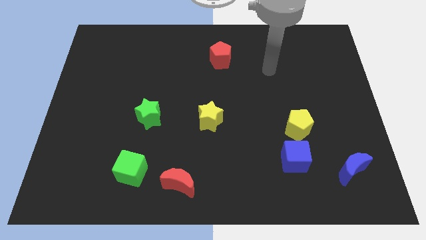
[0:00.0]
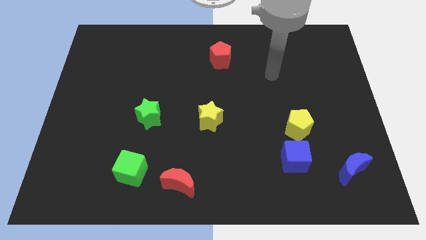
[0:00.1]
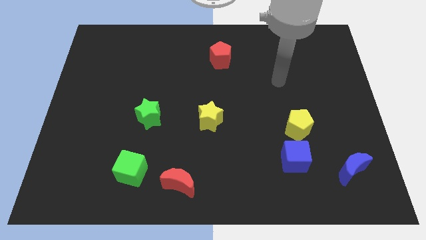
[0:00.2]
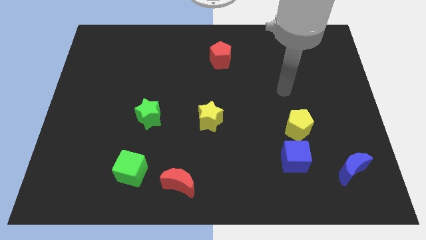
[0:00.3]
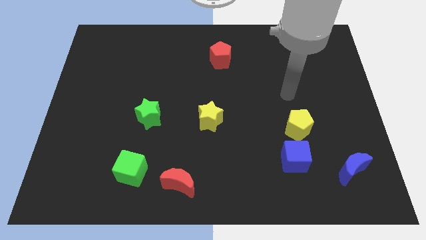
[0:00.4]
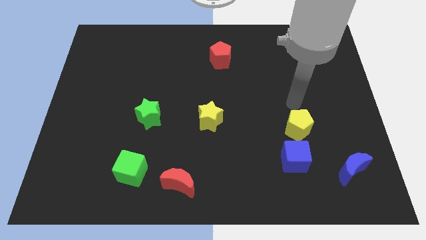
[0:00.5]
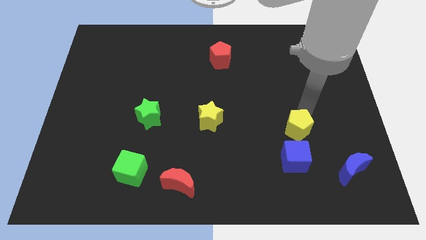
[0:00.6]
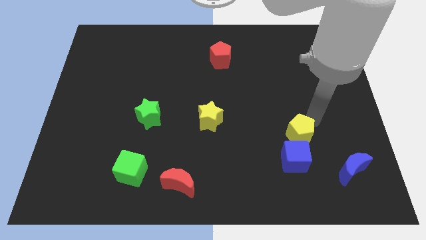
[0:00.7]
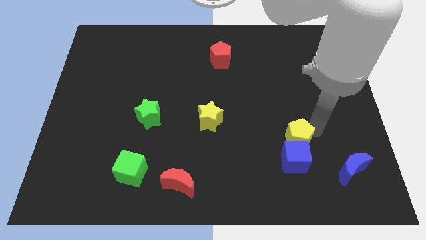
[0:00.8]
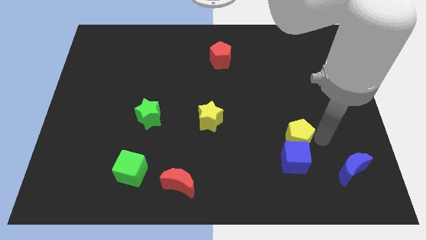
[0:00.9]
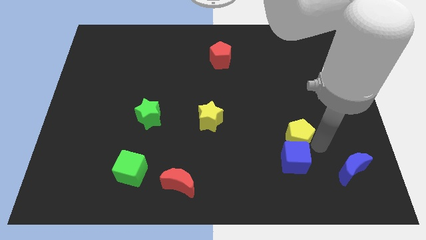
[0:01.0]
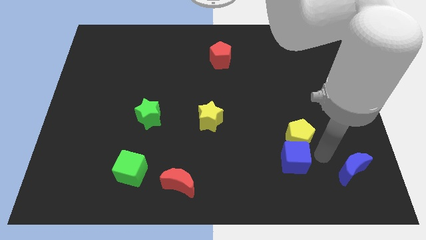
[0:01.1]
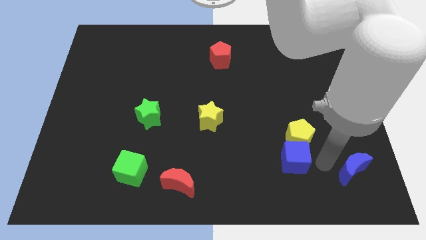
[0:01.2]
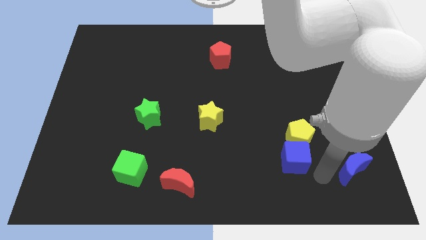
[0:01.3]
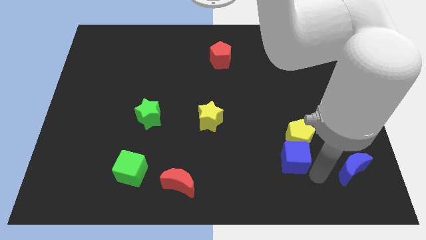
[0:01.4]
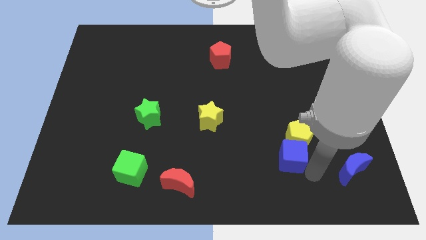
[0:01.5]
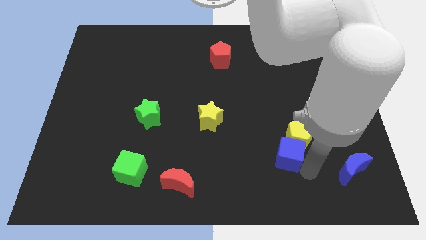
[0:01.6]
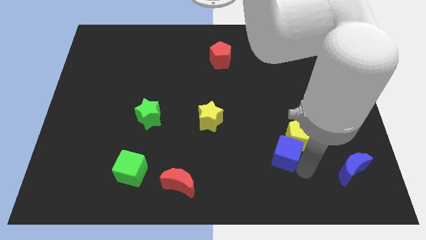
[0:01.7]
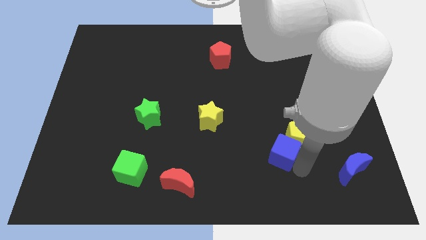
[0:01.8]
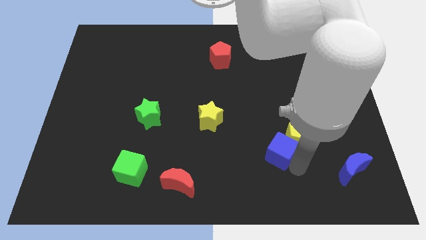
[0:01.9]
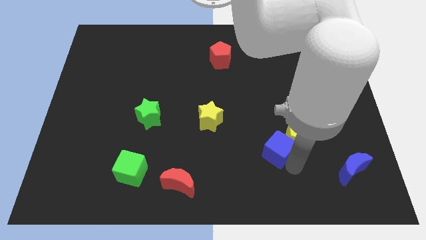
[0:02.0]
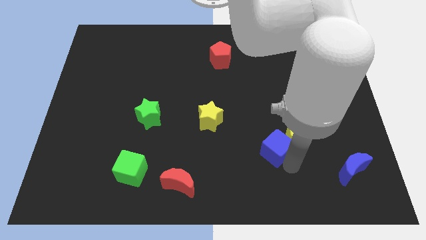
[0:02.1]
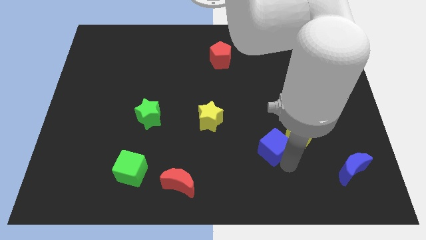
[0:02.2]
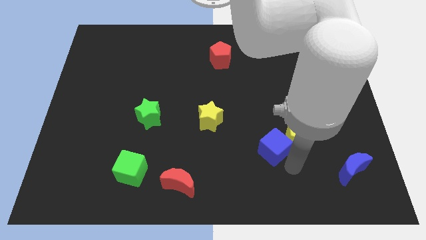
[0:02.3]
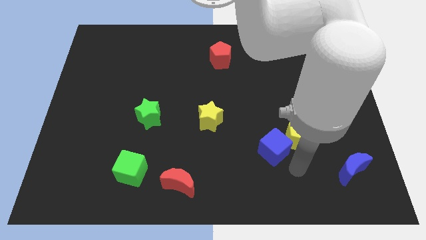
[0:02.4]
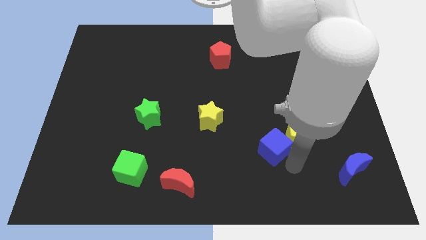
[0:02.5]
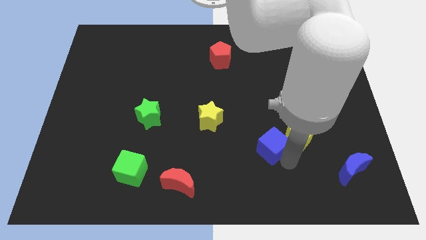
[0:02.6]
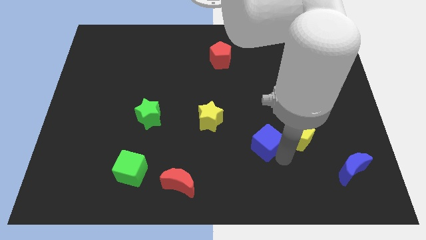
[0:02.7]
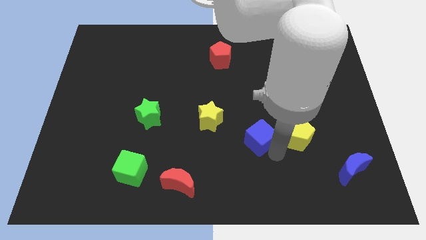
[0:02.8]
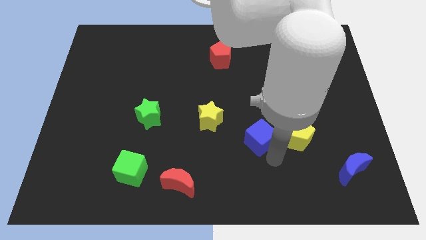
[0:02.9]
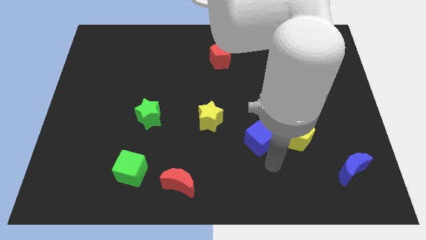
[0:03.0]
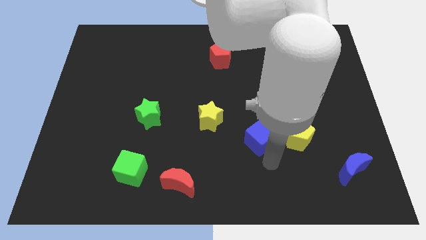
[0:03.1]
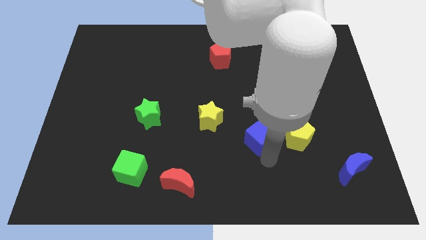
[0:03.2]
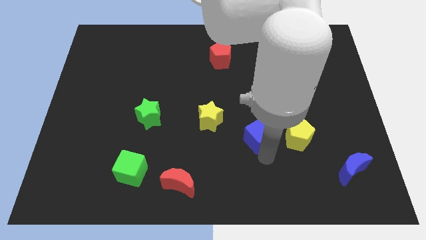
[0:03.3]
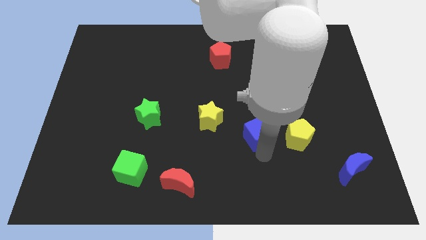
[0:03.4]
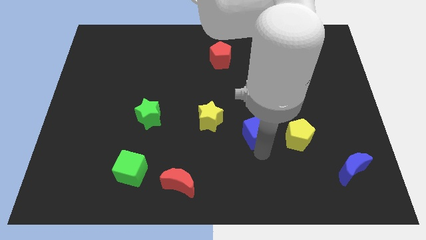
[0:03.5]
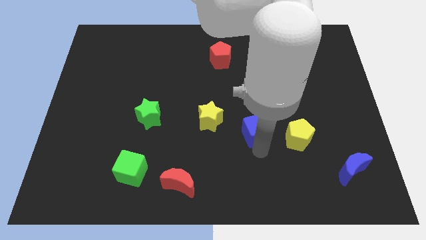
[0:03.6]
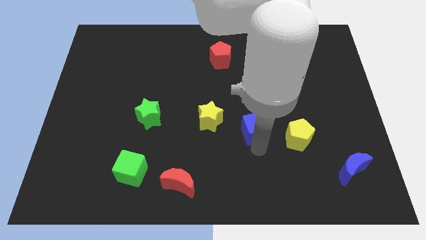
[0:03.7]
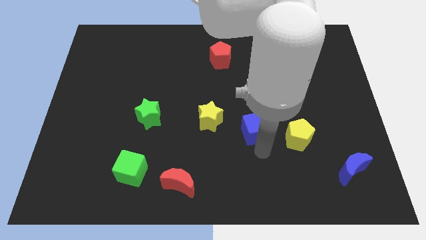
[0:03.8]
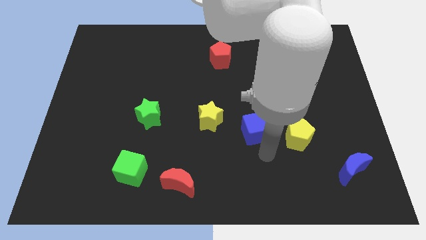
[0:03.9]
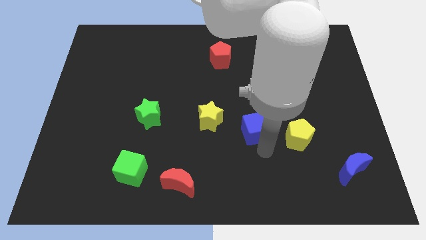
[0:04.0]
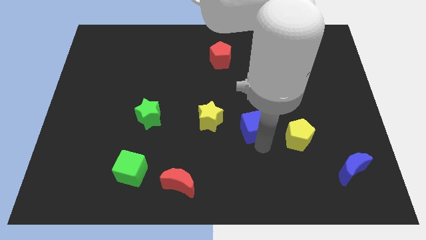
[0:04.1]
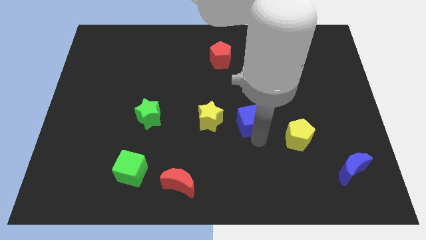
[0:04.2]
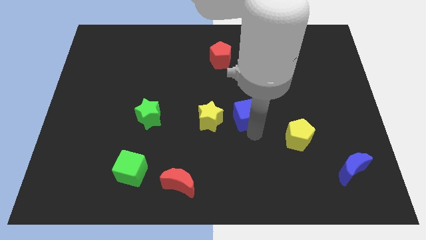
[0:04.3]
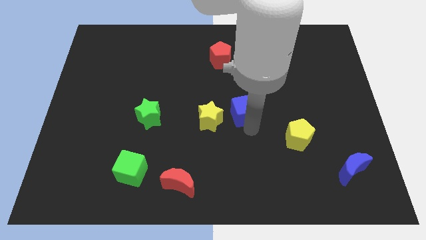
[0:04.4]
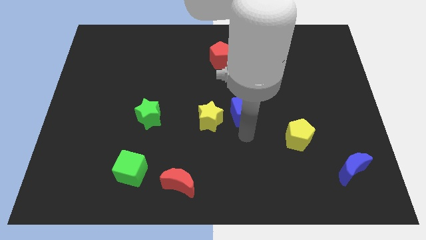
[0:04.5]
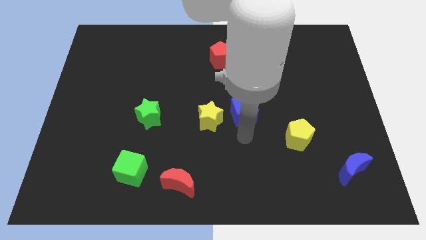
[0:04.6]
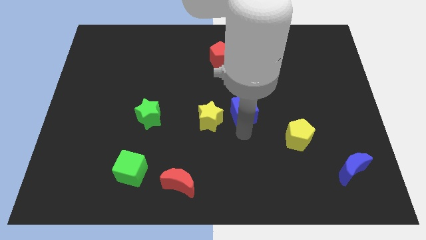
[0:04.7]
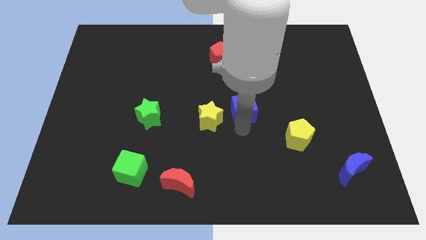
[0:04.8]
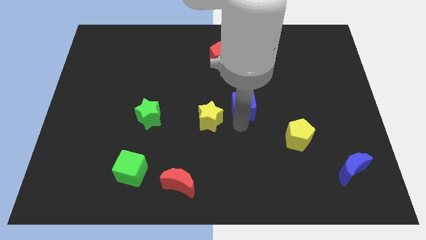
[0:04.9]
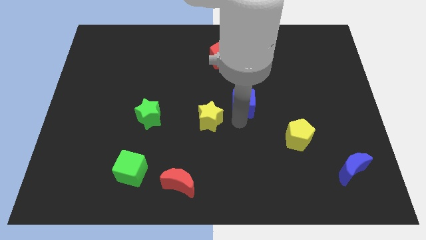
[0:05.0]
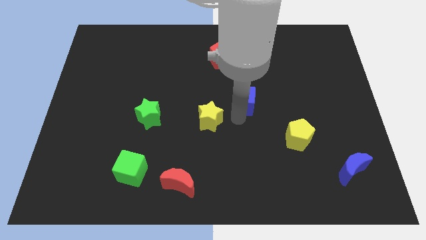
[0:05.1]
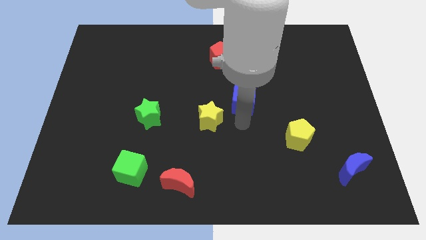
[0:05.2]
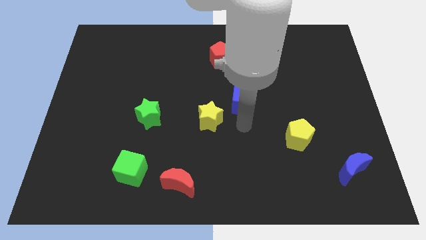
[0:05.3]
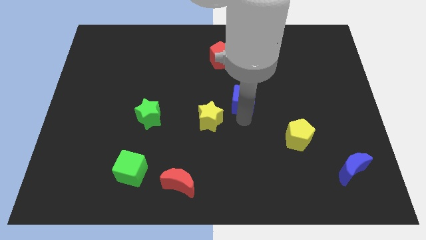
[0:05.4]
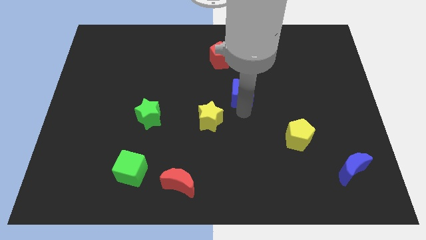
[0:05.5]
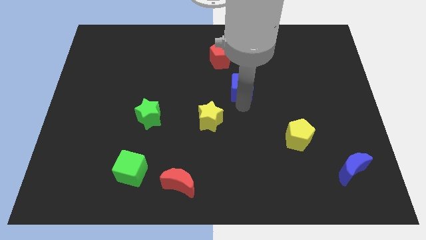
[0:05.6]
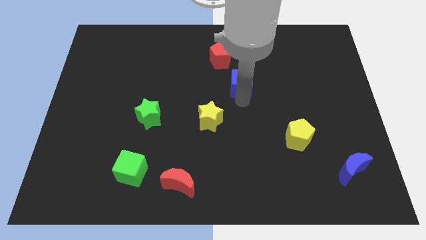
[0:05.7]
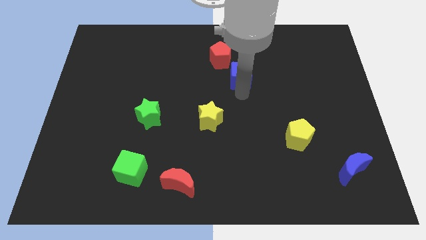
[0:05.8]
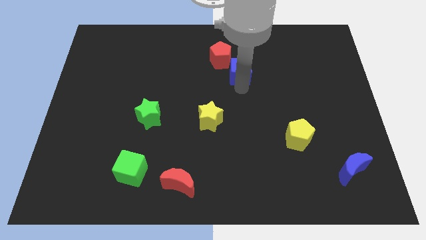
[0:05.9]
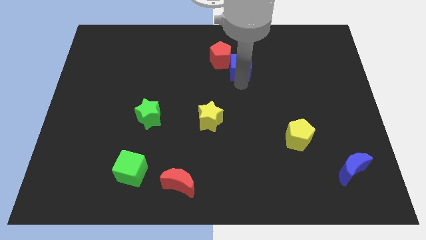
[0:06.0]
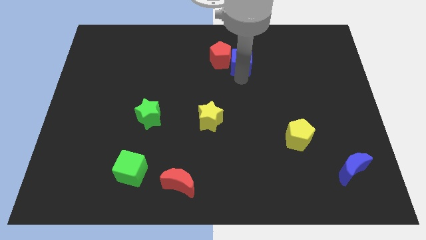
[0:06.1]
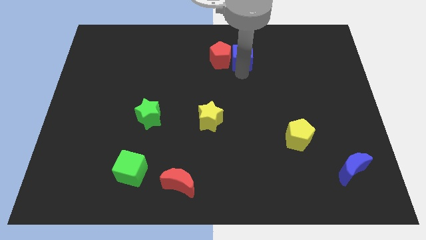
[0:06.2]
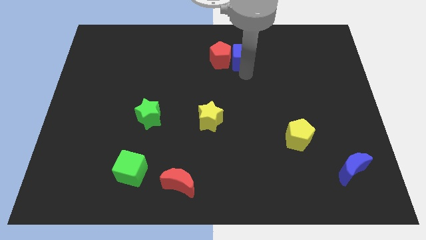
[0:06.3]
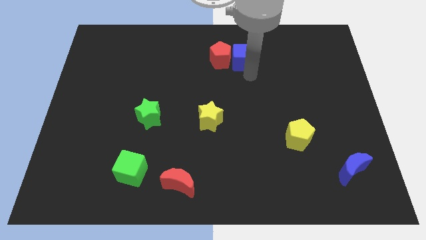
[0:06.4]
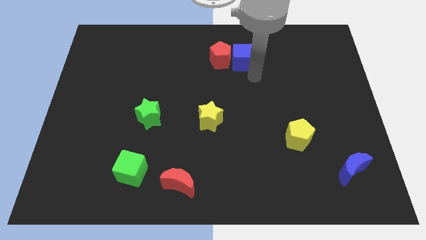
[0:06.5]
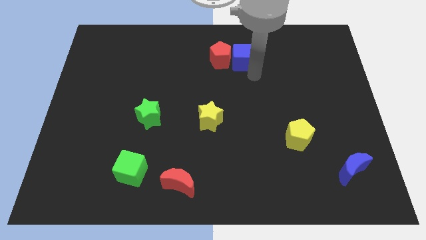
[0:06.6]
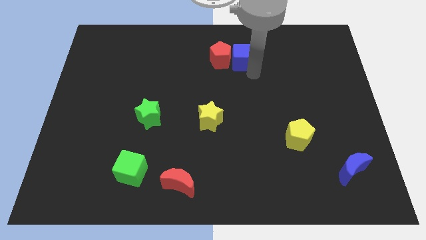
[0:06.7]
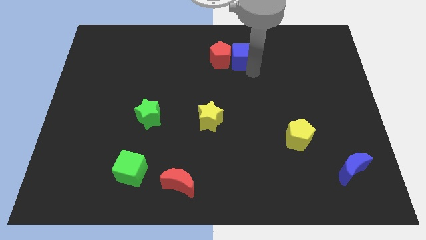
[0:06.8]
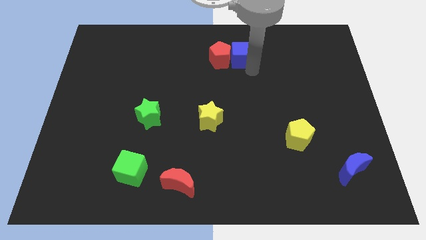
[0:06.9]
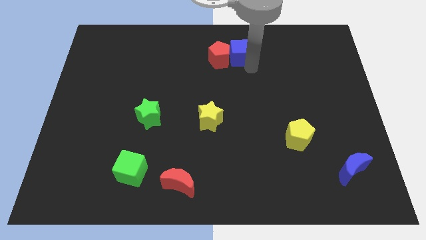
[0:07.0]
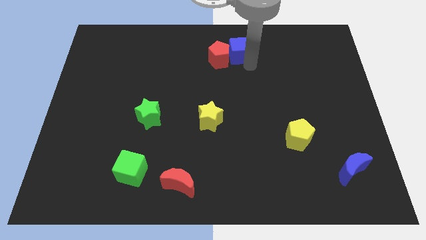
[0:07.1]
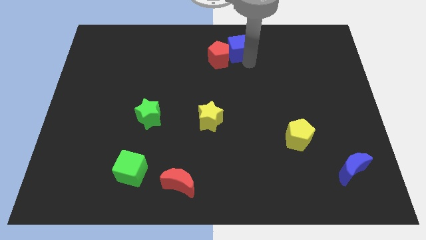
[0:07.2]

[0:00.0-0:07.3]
put the blue cube to the towards your base

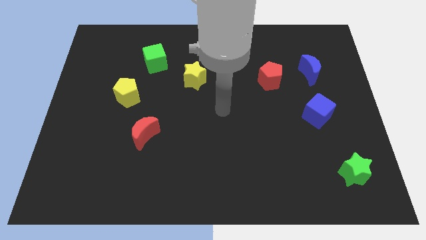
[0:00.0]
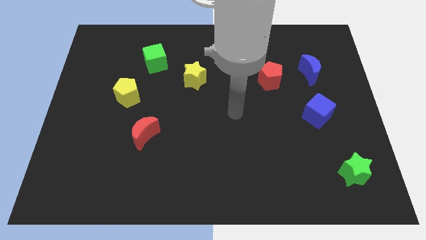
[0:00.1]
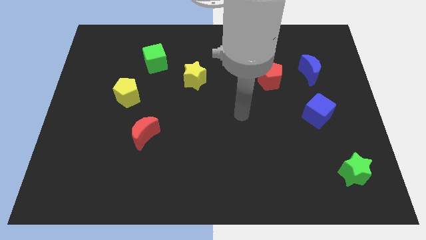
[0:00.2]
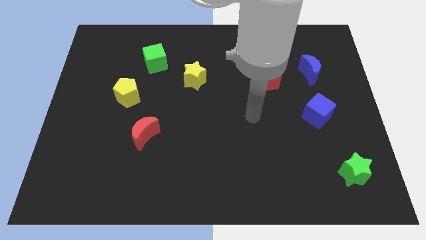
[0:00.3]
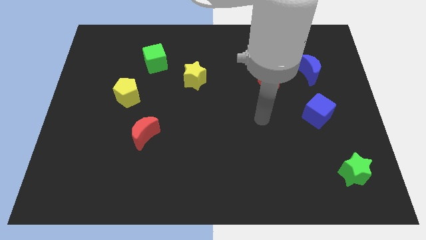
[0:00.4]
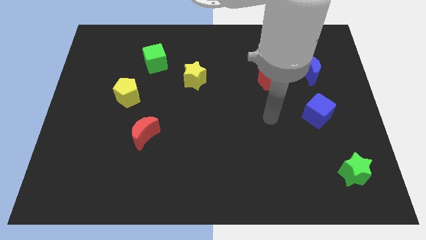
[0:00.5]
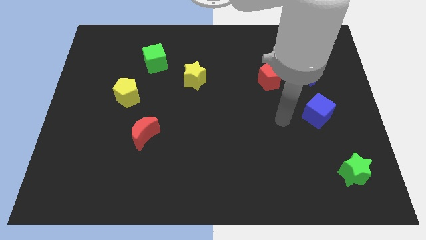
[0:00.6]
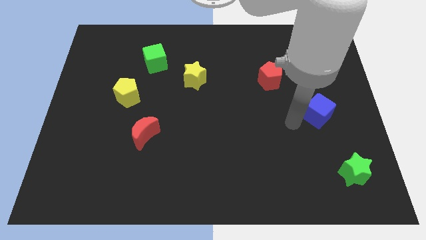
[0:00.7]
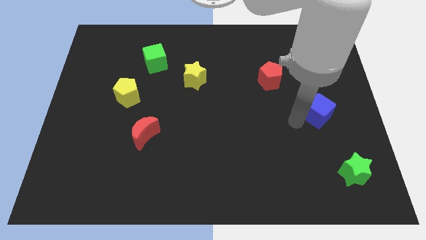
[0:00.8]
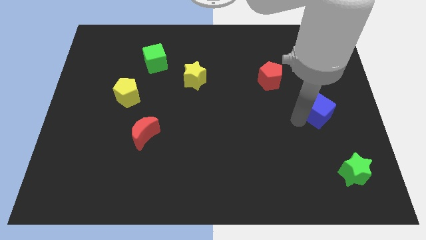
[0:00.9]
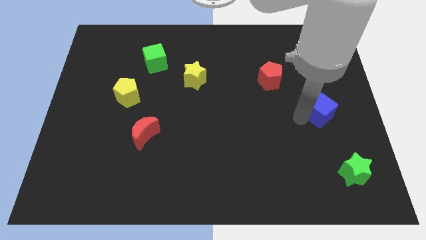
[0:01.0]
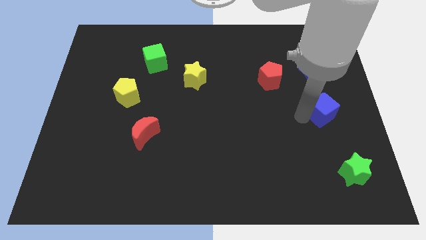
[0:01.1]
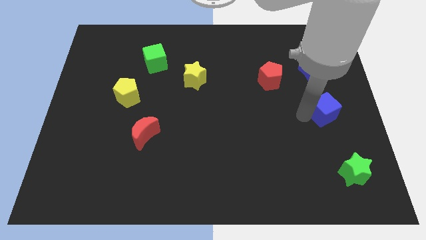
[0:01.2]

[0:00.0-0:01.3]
slide the blue cube to the right side
